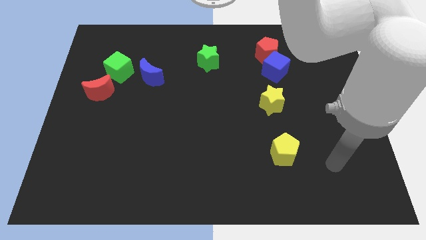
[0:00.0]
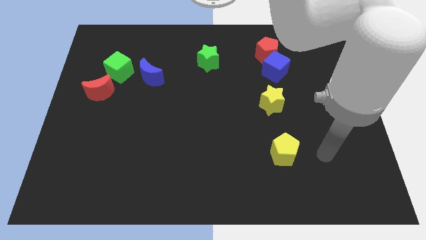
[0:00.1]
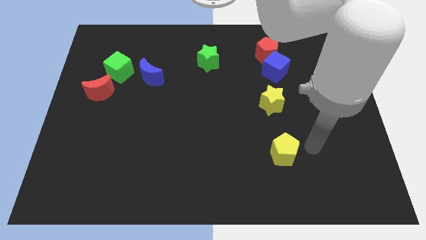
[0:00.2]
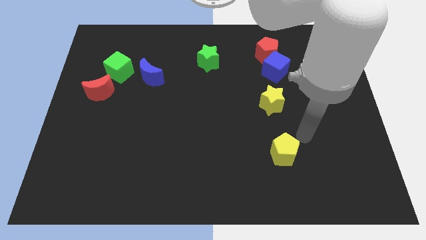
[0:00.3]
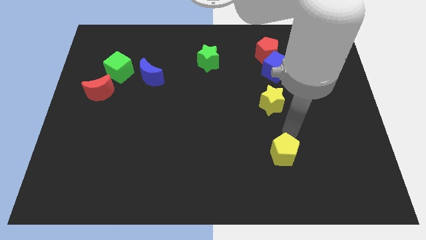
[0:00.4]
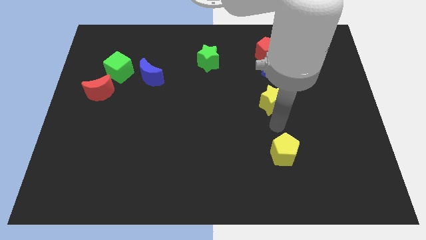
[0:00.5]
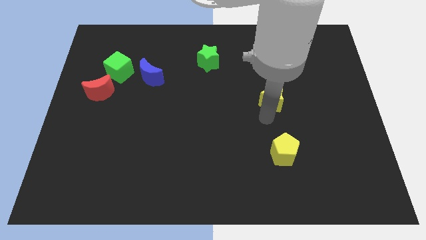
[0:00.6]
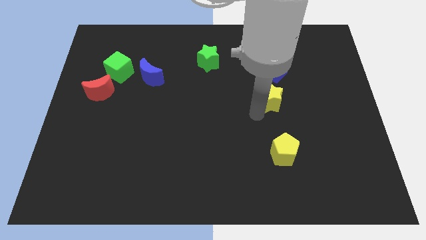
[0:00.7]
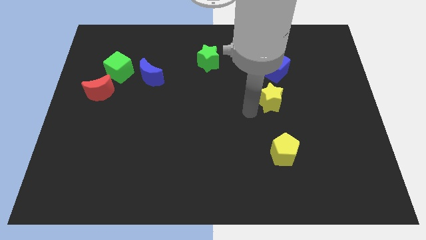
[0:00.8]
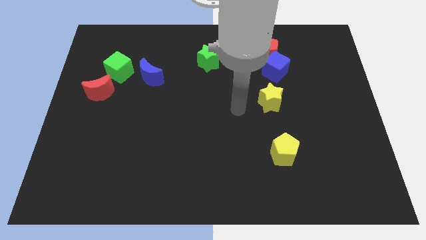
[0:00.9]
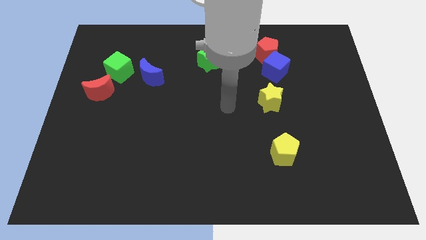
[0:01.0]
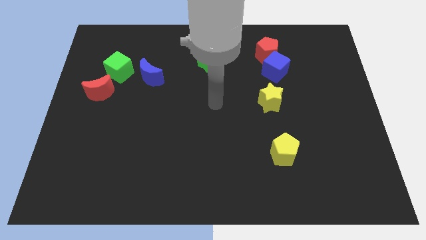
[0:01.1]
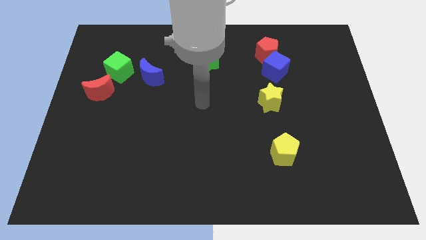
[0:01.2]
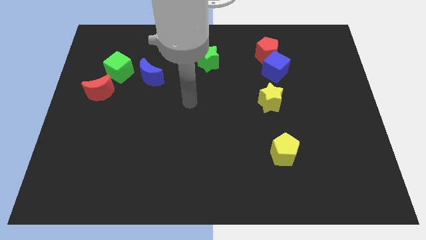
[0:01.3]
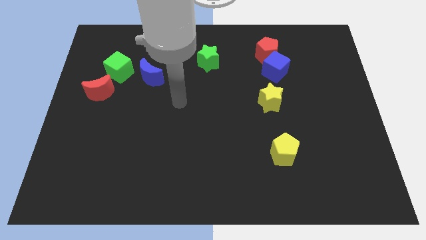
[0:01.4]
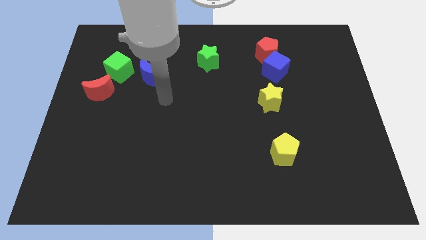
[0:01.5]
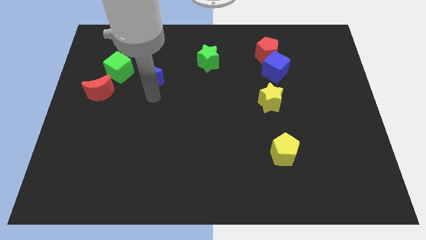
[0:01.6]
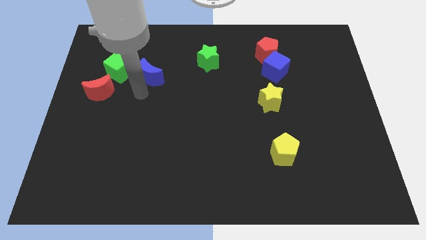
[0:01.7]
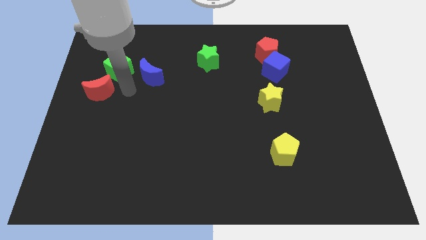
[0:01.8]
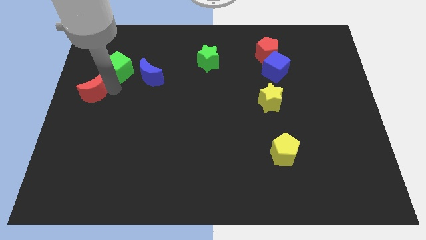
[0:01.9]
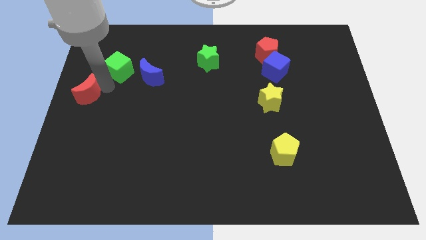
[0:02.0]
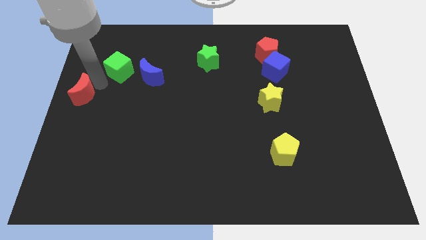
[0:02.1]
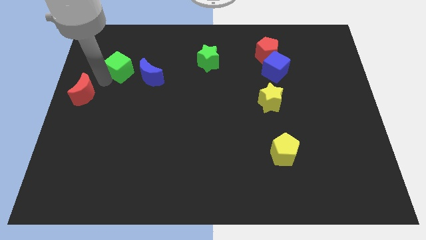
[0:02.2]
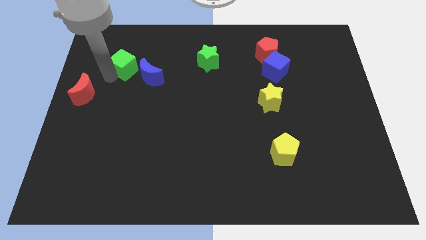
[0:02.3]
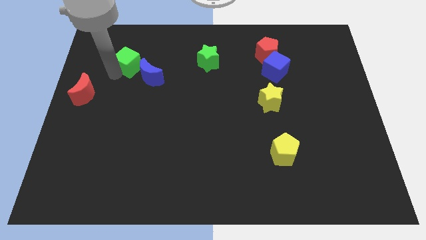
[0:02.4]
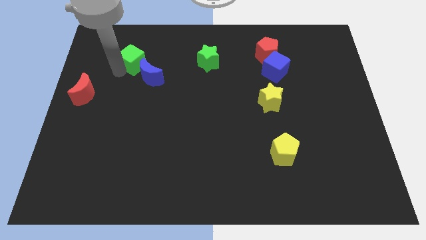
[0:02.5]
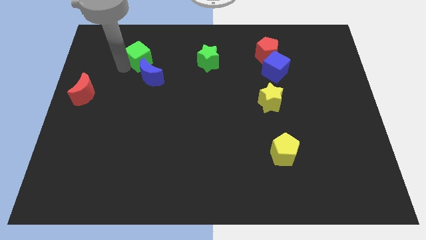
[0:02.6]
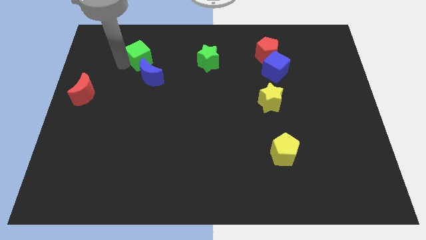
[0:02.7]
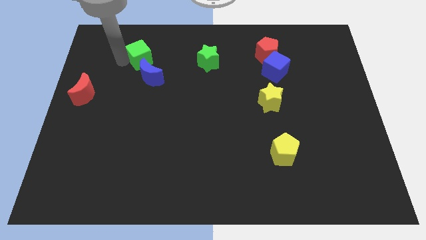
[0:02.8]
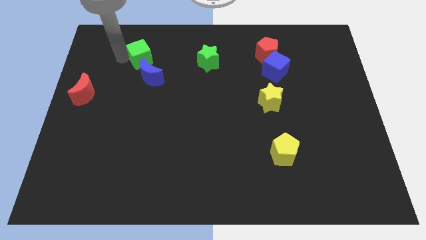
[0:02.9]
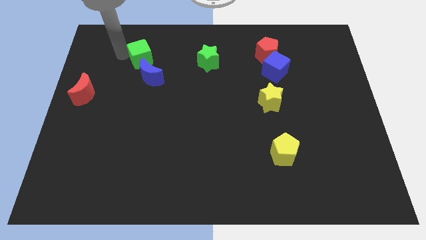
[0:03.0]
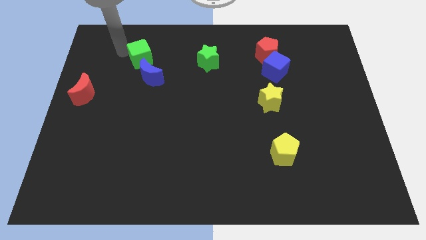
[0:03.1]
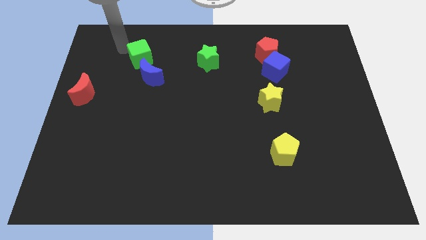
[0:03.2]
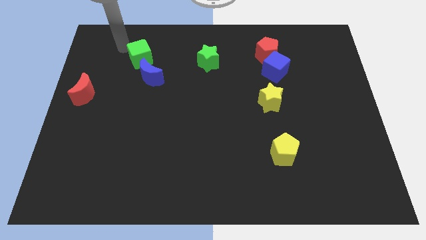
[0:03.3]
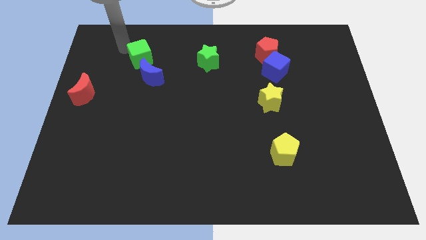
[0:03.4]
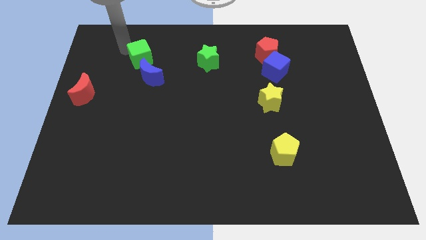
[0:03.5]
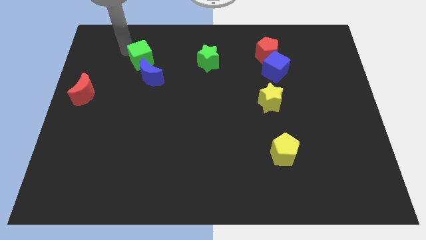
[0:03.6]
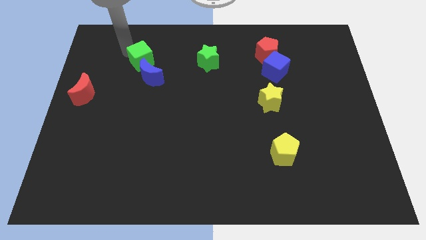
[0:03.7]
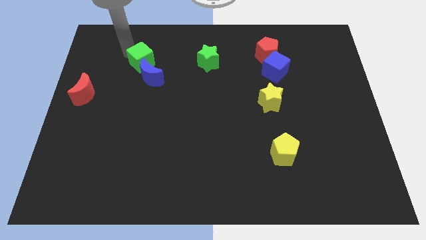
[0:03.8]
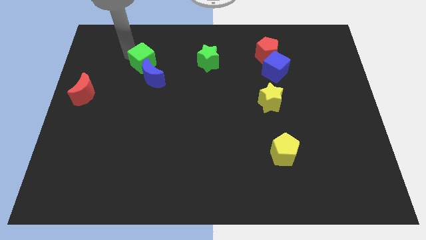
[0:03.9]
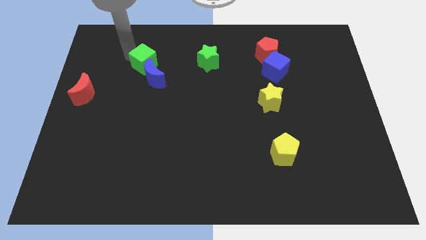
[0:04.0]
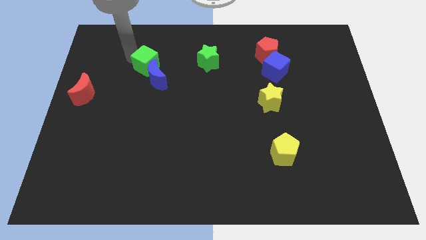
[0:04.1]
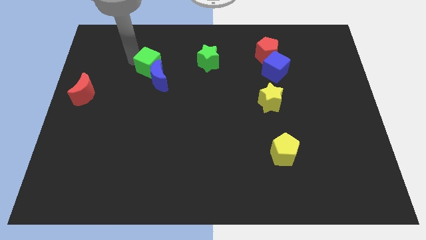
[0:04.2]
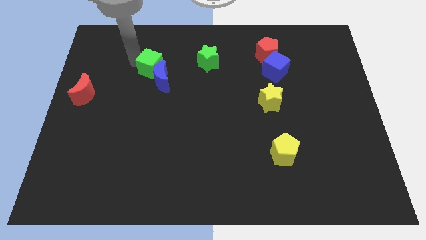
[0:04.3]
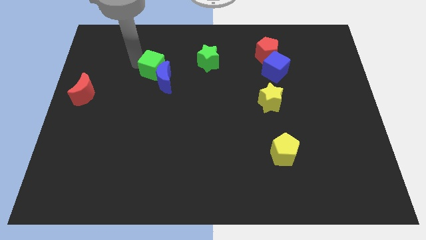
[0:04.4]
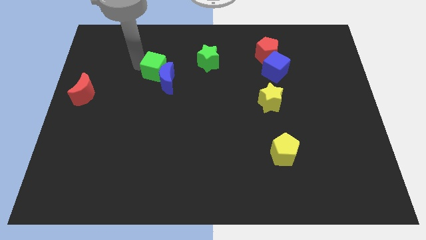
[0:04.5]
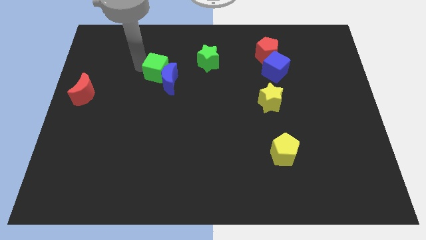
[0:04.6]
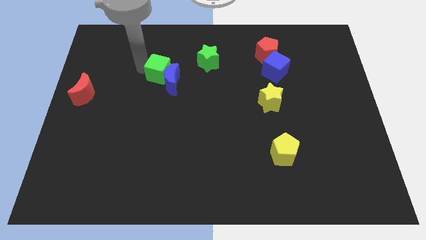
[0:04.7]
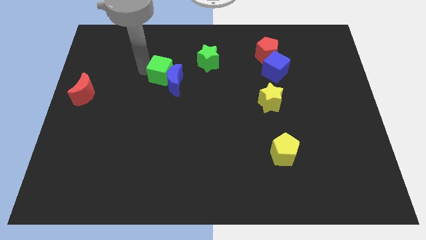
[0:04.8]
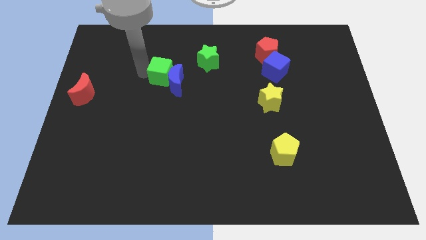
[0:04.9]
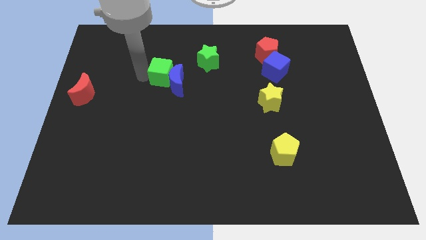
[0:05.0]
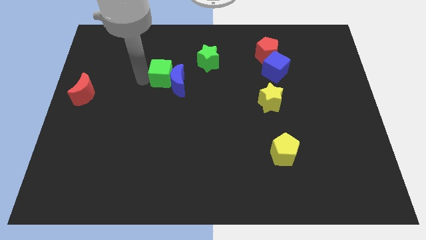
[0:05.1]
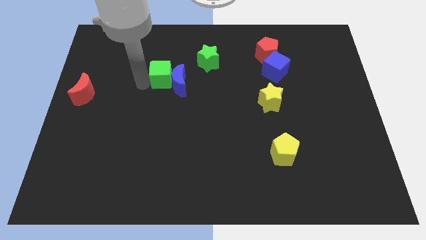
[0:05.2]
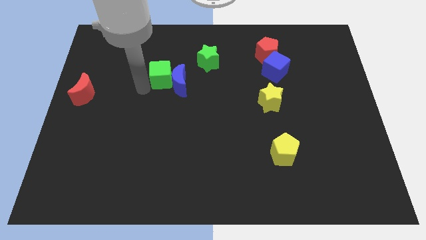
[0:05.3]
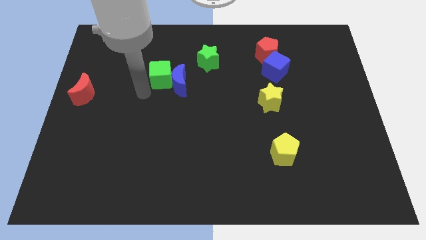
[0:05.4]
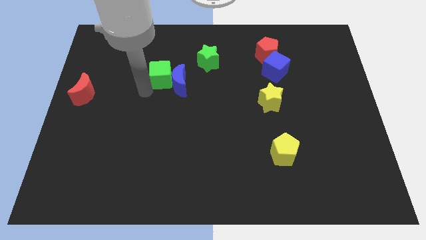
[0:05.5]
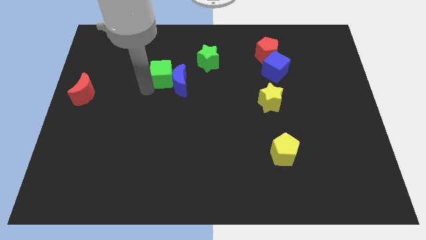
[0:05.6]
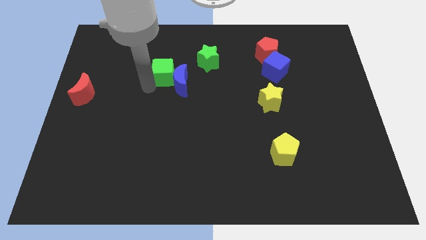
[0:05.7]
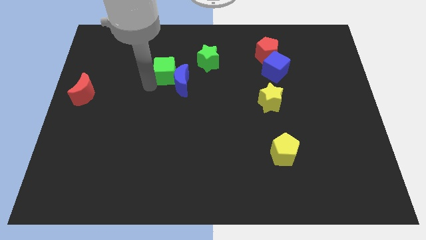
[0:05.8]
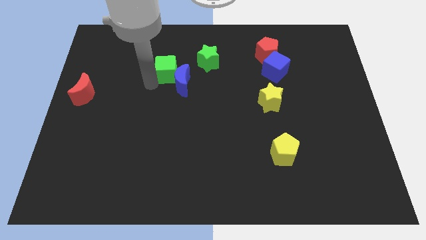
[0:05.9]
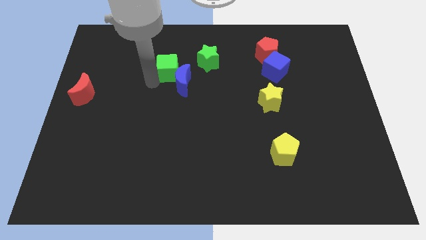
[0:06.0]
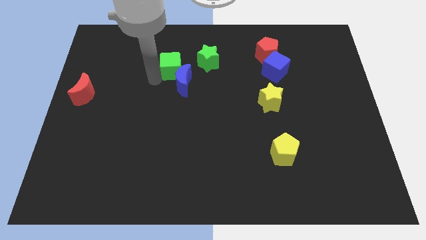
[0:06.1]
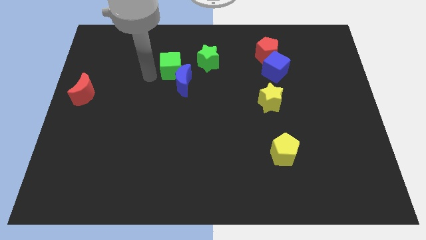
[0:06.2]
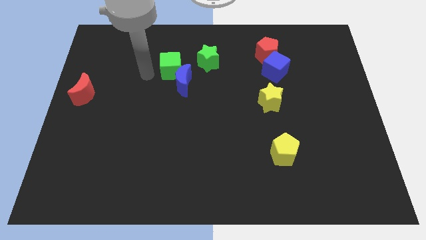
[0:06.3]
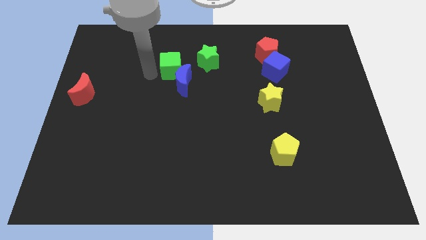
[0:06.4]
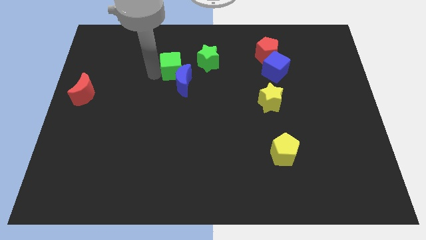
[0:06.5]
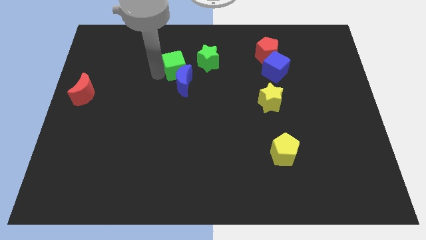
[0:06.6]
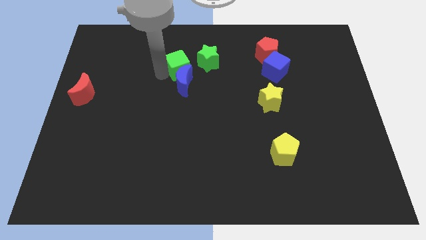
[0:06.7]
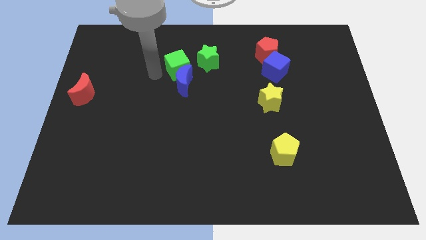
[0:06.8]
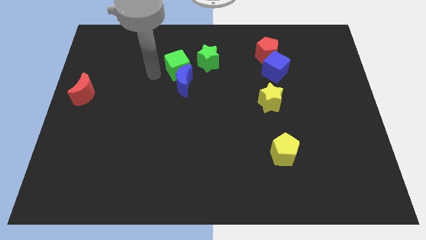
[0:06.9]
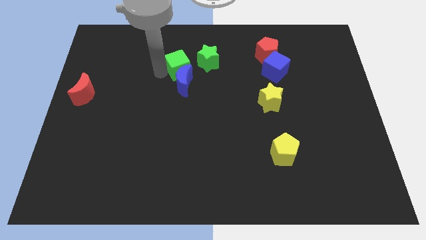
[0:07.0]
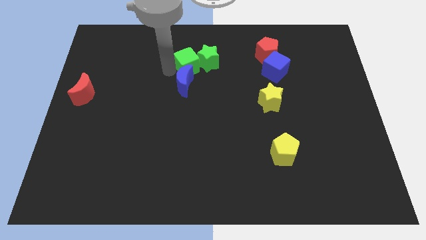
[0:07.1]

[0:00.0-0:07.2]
move the green cube close to the green star

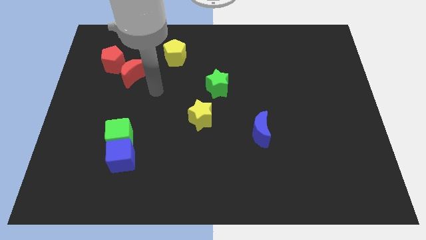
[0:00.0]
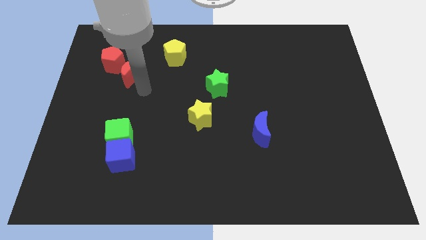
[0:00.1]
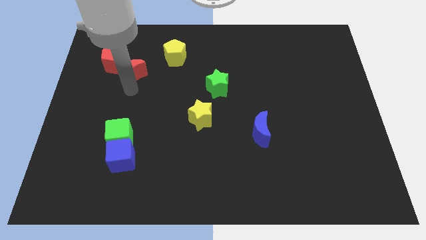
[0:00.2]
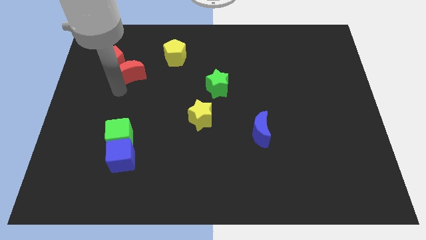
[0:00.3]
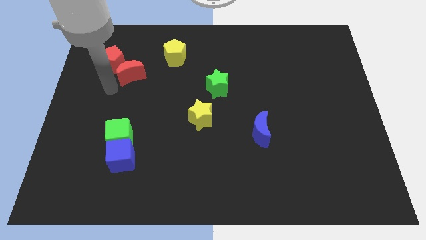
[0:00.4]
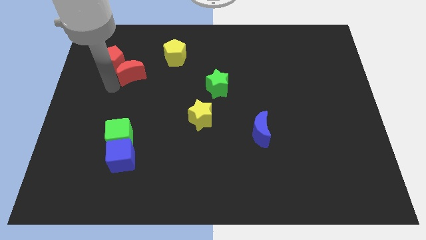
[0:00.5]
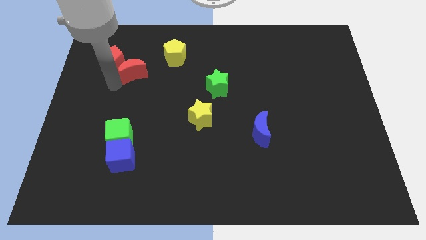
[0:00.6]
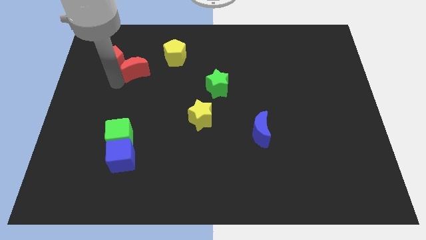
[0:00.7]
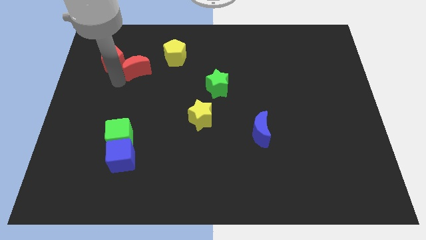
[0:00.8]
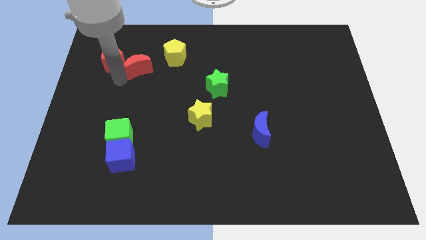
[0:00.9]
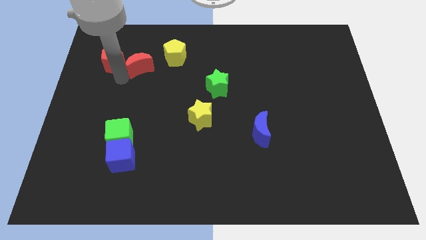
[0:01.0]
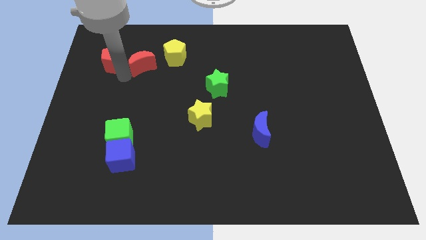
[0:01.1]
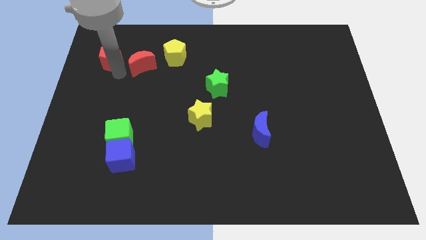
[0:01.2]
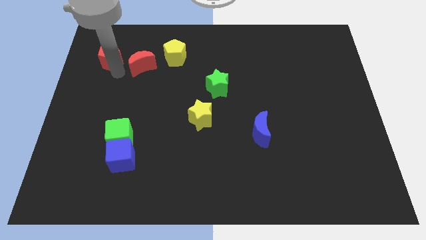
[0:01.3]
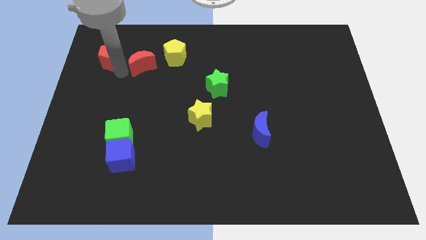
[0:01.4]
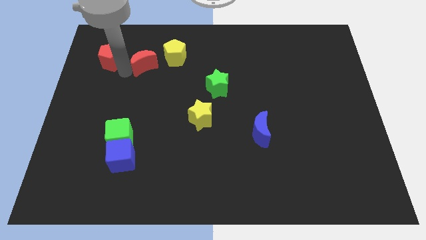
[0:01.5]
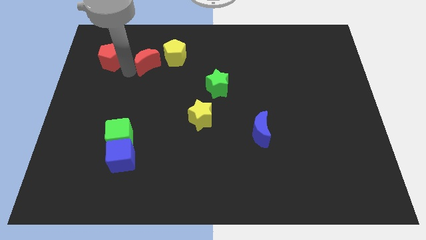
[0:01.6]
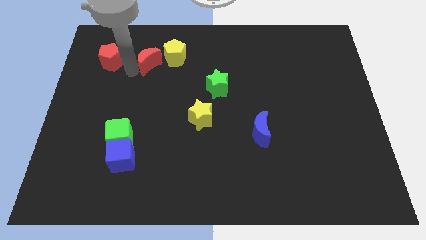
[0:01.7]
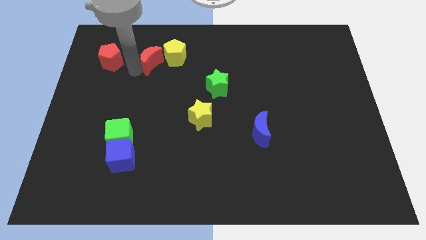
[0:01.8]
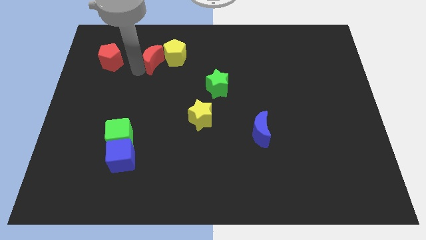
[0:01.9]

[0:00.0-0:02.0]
push the red moon next to the yellow pentagon
